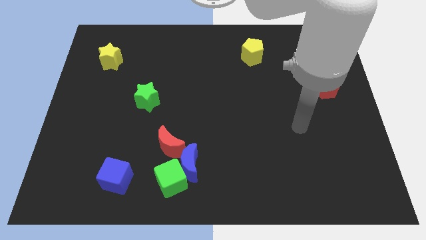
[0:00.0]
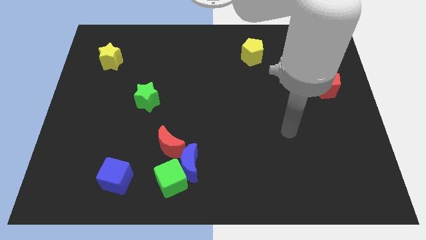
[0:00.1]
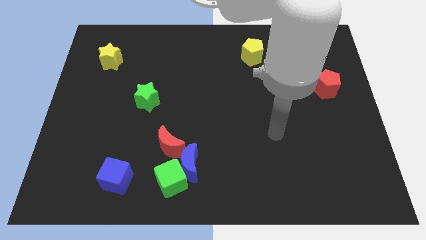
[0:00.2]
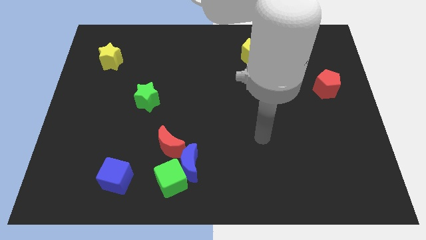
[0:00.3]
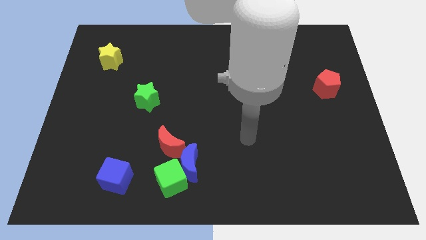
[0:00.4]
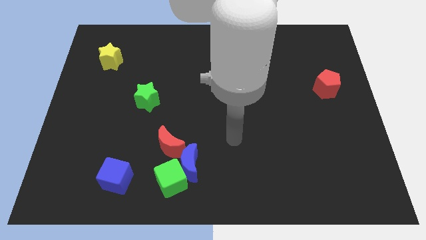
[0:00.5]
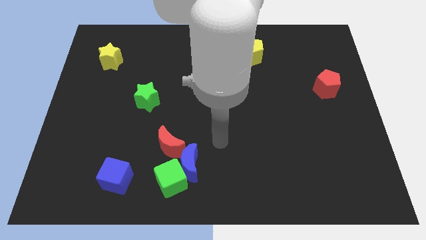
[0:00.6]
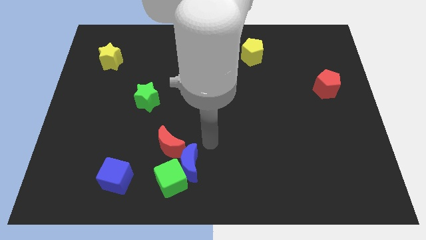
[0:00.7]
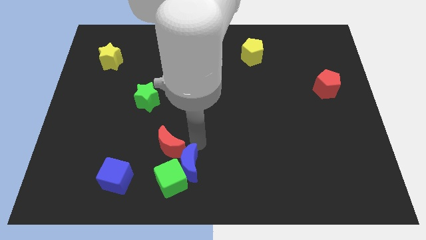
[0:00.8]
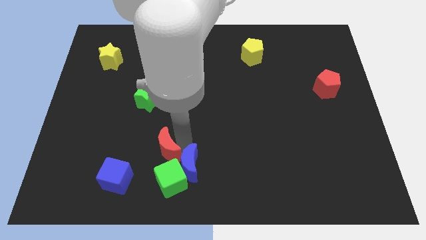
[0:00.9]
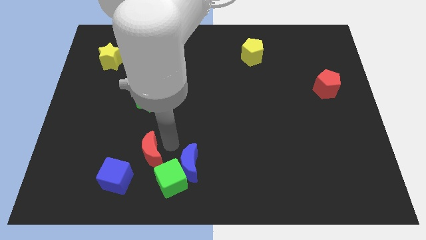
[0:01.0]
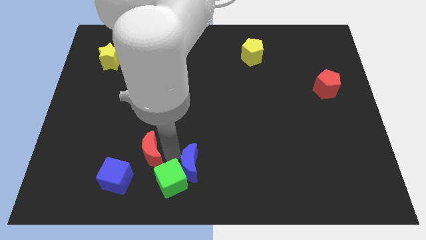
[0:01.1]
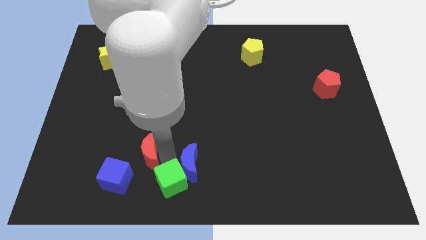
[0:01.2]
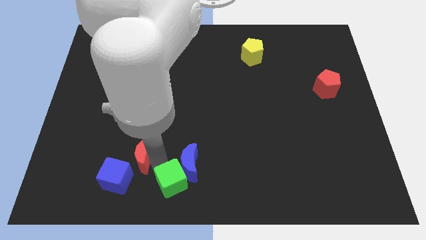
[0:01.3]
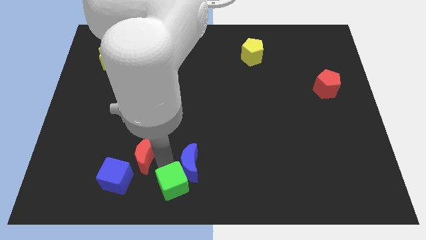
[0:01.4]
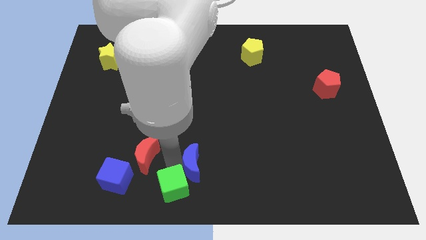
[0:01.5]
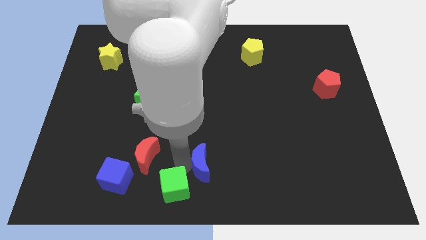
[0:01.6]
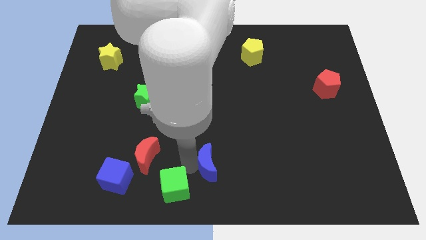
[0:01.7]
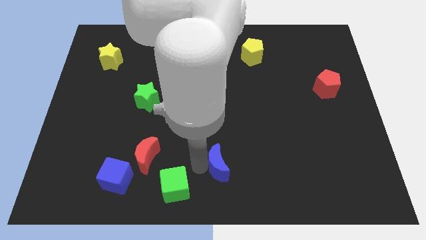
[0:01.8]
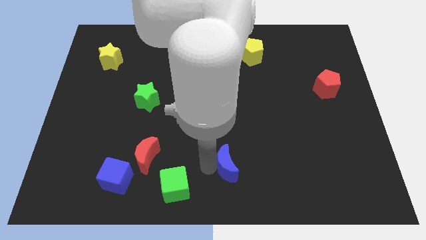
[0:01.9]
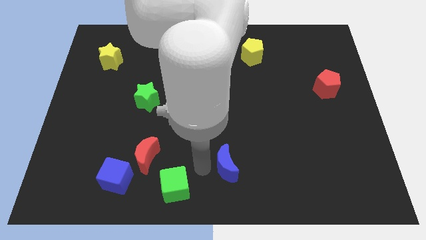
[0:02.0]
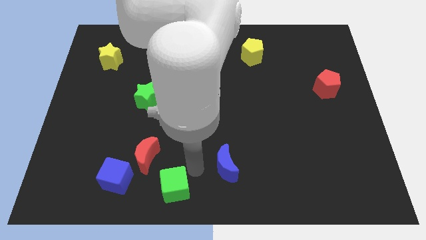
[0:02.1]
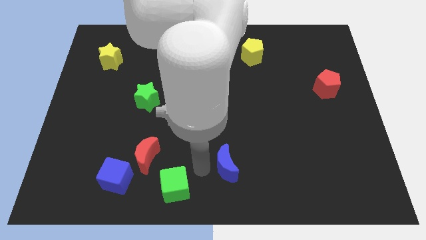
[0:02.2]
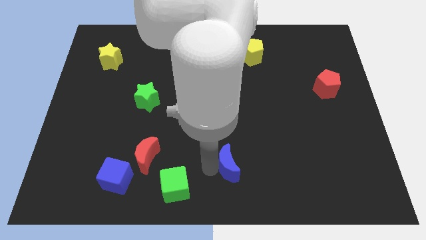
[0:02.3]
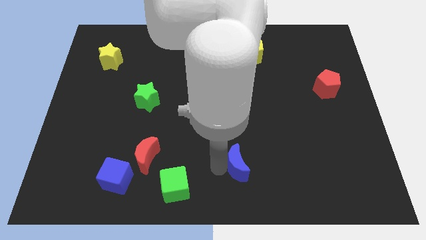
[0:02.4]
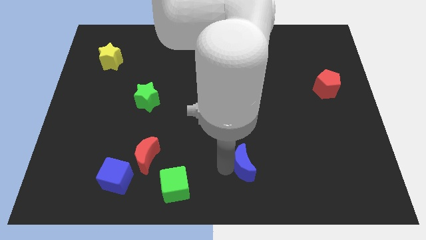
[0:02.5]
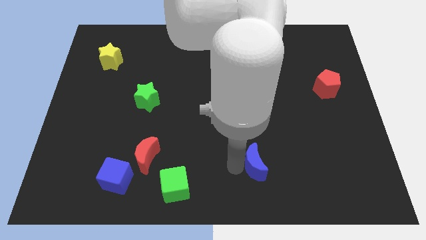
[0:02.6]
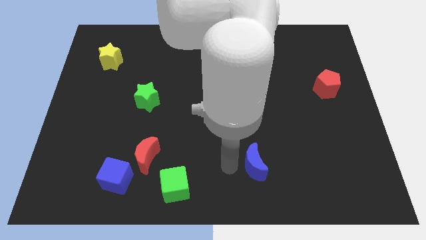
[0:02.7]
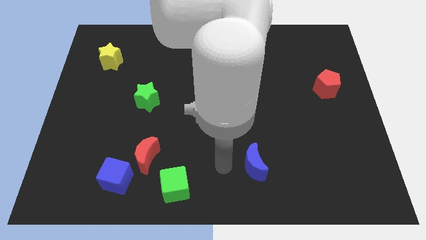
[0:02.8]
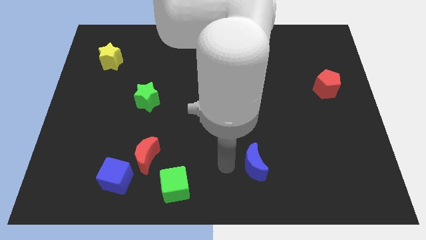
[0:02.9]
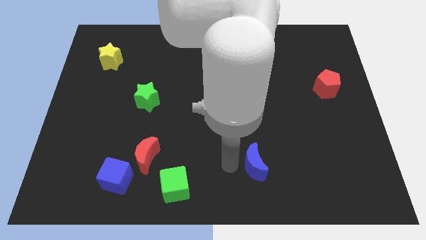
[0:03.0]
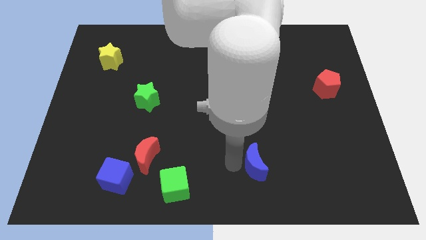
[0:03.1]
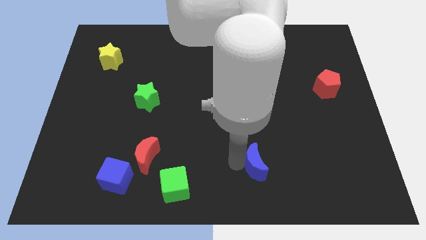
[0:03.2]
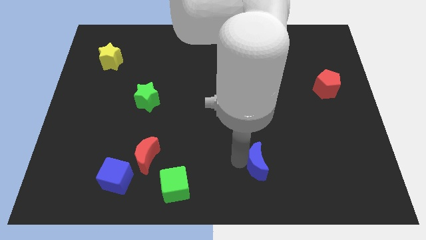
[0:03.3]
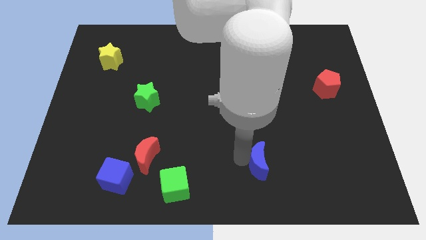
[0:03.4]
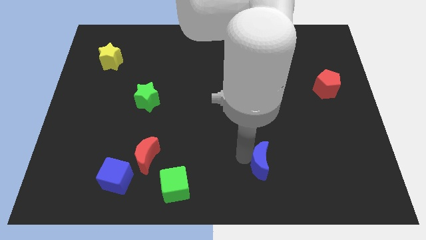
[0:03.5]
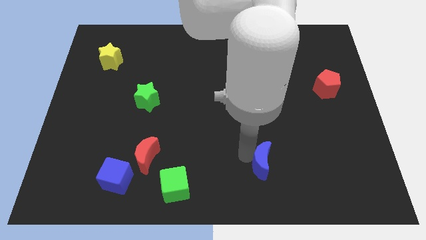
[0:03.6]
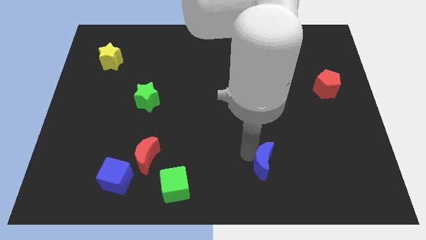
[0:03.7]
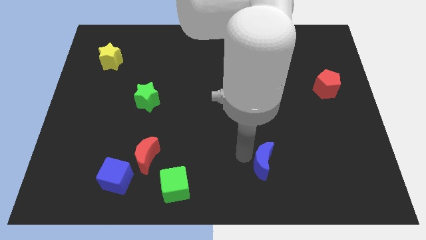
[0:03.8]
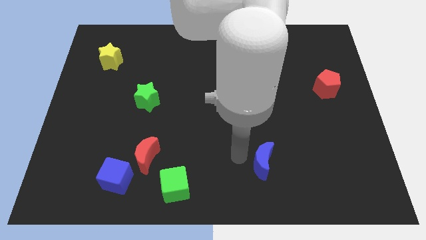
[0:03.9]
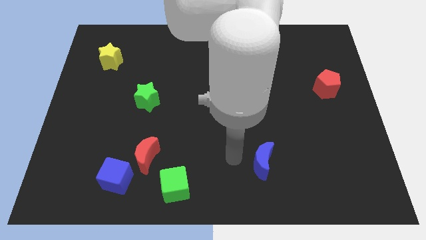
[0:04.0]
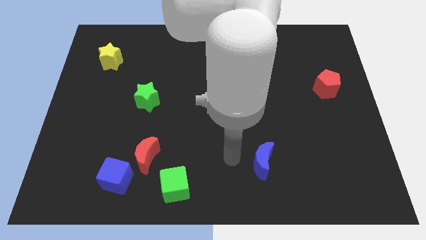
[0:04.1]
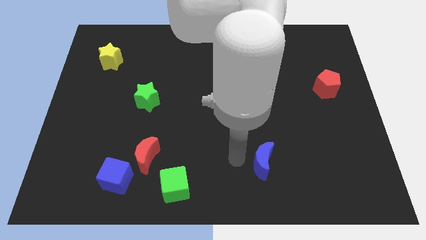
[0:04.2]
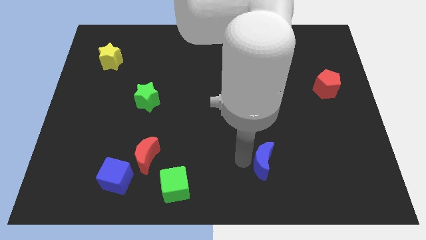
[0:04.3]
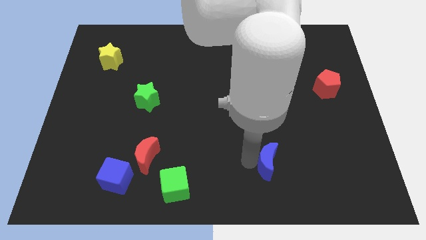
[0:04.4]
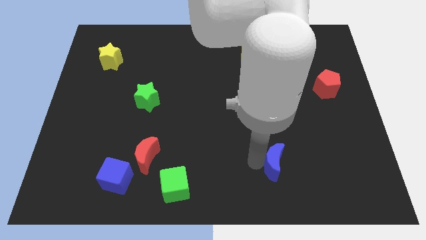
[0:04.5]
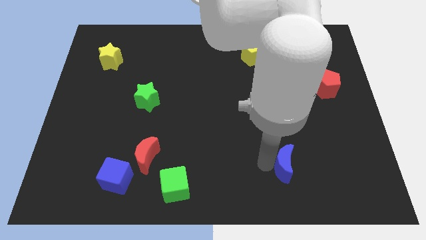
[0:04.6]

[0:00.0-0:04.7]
move the blue moon right

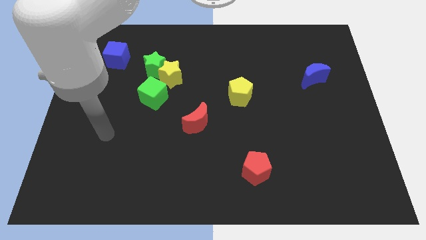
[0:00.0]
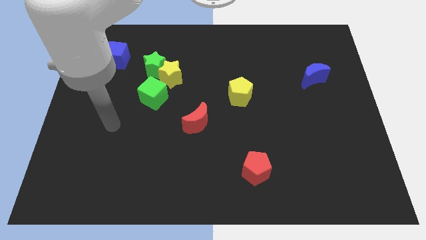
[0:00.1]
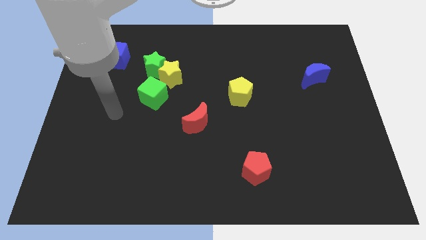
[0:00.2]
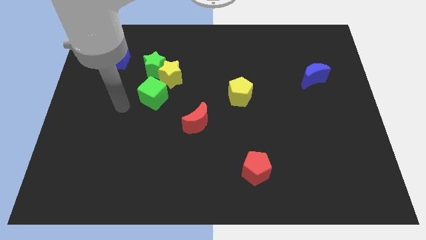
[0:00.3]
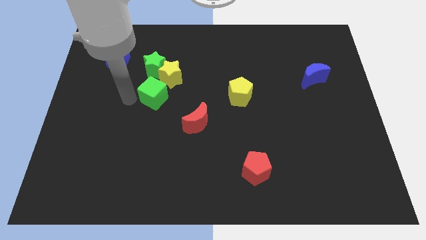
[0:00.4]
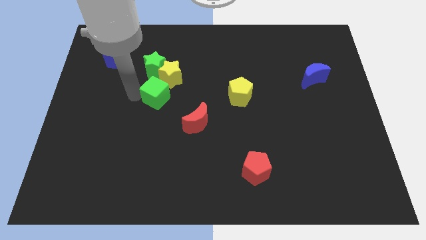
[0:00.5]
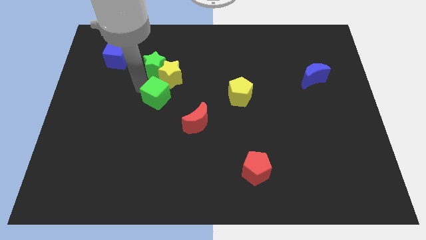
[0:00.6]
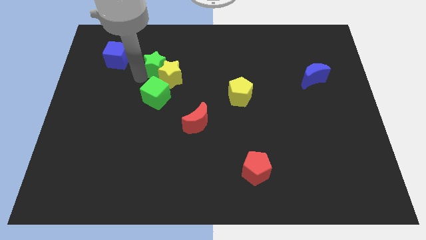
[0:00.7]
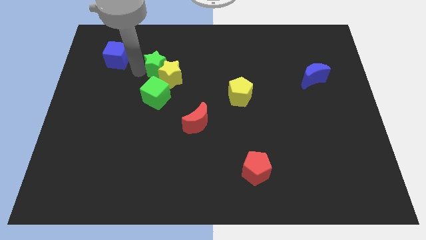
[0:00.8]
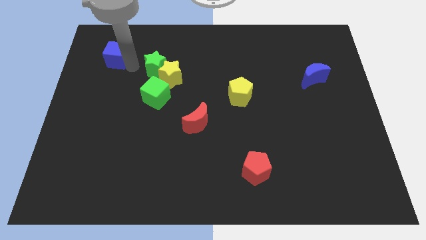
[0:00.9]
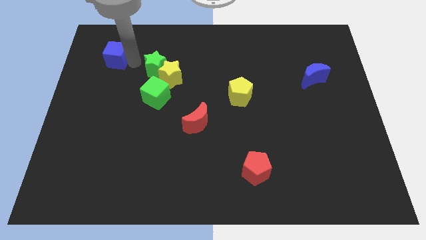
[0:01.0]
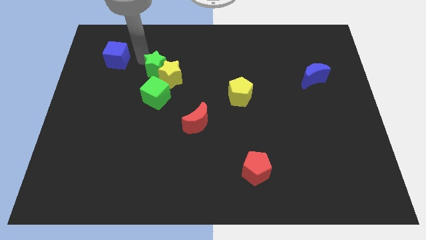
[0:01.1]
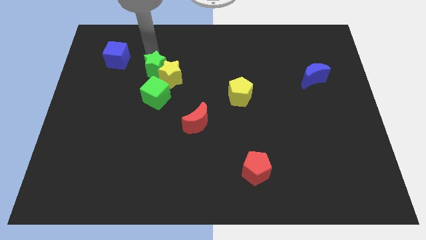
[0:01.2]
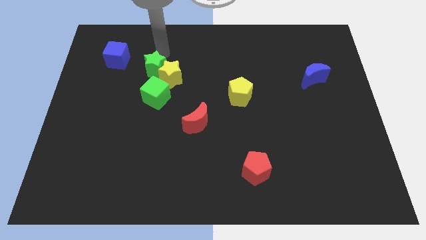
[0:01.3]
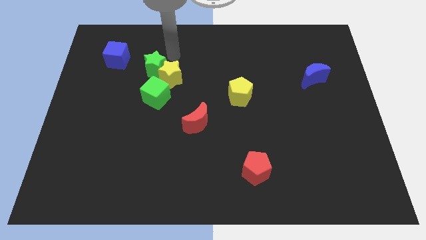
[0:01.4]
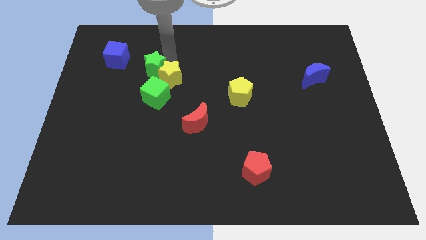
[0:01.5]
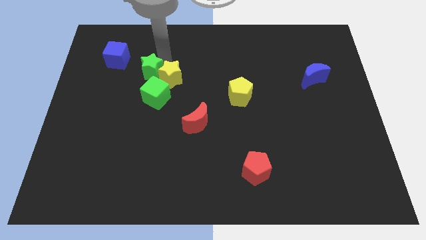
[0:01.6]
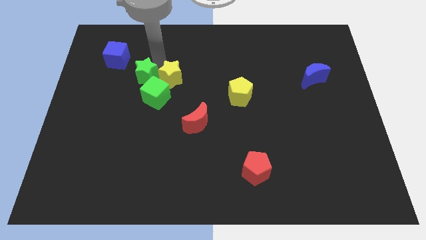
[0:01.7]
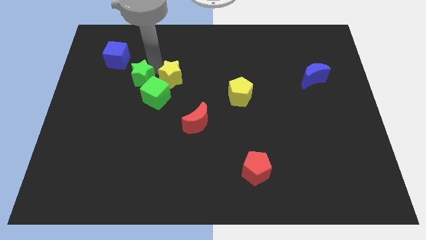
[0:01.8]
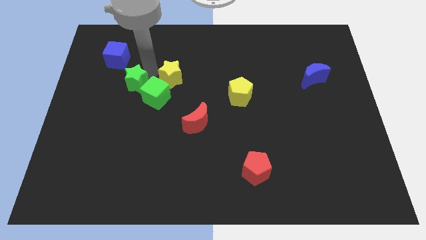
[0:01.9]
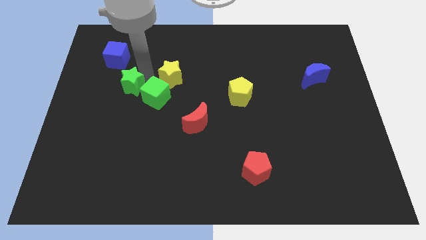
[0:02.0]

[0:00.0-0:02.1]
slide the green star a little bit downwards and to the left

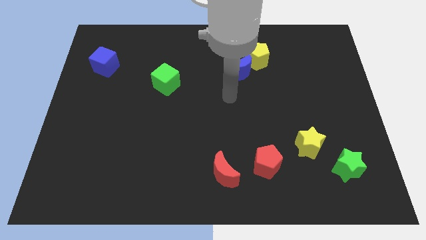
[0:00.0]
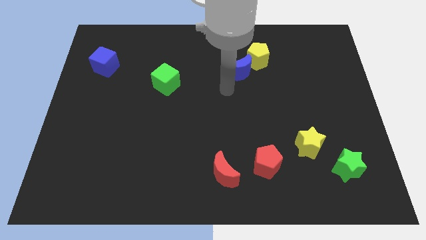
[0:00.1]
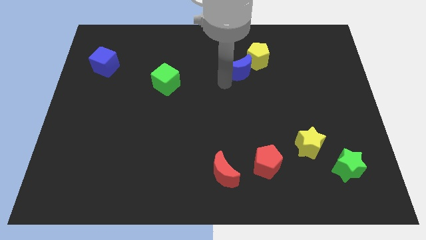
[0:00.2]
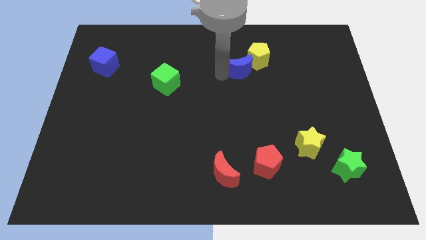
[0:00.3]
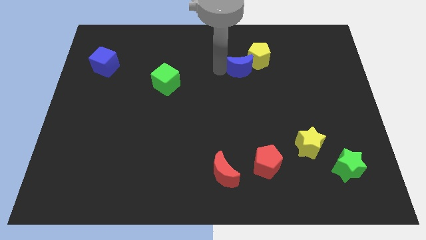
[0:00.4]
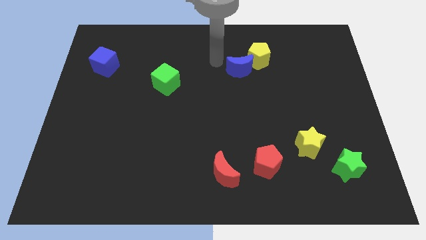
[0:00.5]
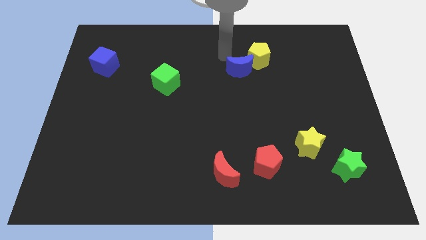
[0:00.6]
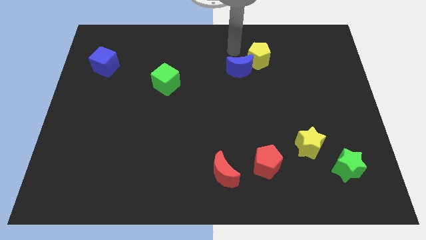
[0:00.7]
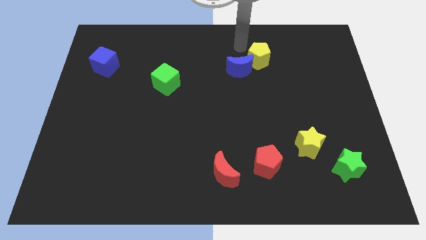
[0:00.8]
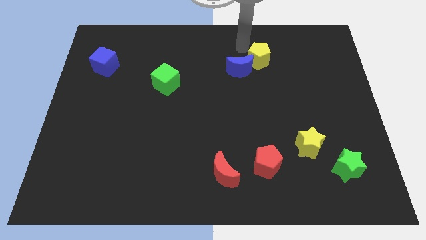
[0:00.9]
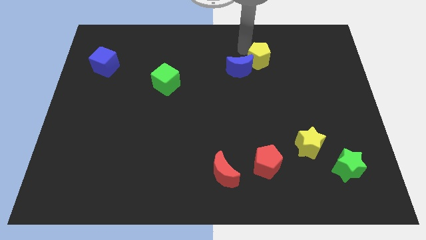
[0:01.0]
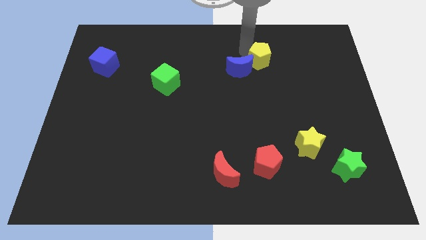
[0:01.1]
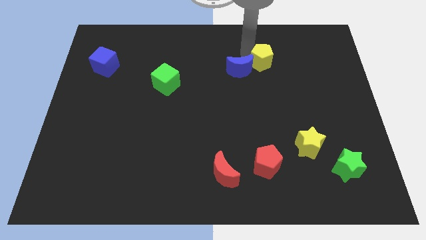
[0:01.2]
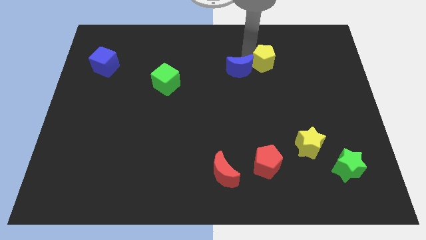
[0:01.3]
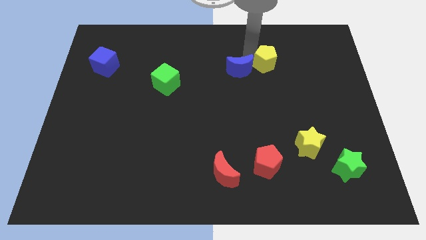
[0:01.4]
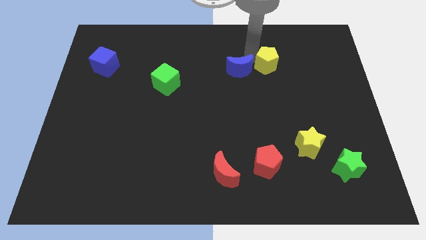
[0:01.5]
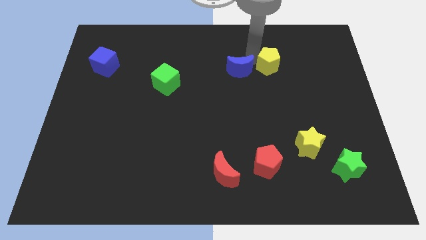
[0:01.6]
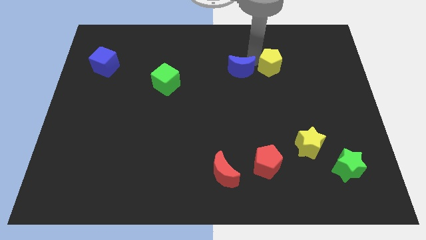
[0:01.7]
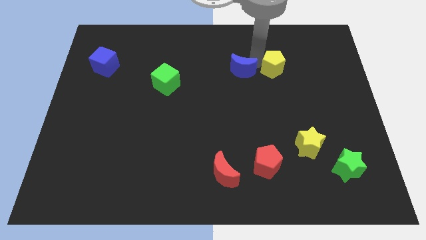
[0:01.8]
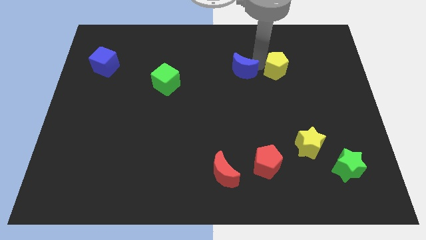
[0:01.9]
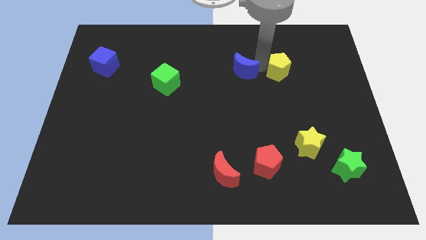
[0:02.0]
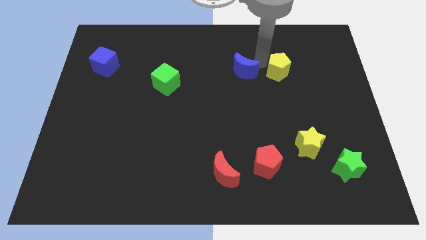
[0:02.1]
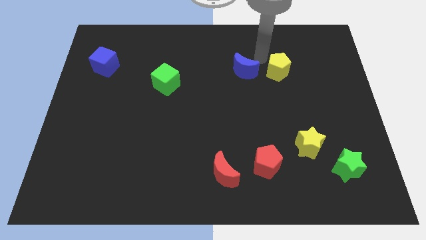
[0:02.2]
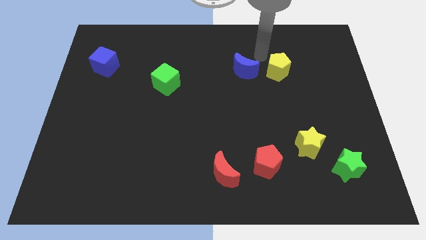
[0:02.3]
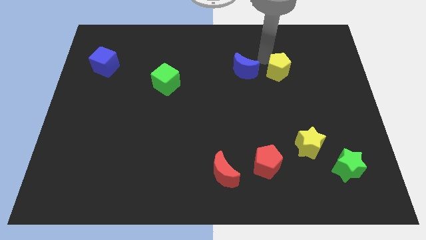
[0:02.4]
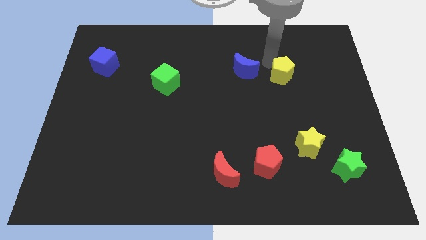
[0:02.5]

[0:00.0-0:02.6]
slide the yellow pentagon down and to the right diagonally slightly
